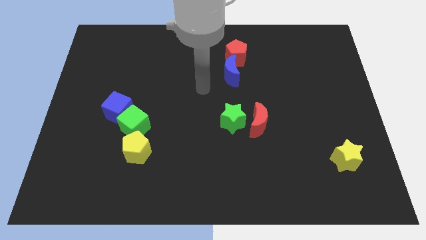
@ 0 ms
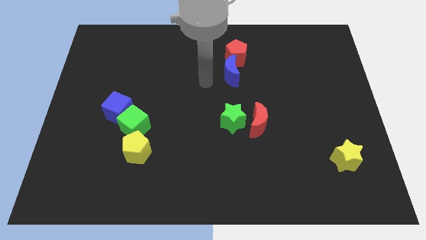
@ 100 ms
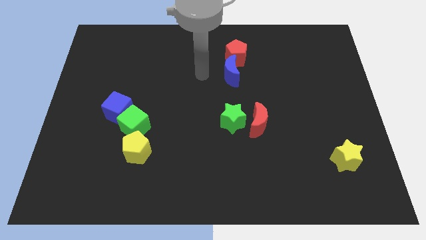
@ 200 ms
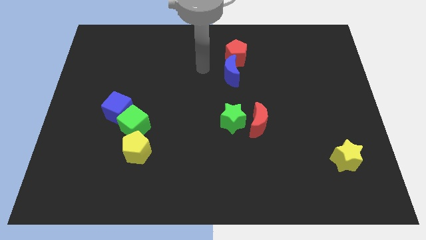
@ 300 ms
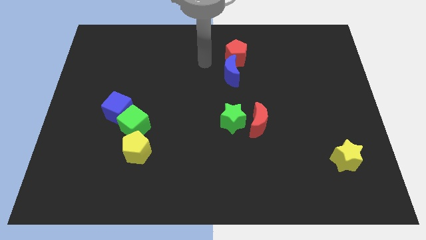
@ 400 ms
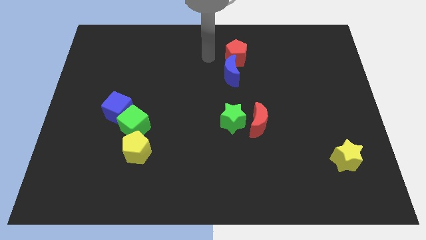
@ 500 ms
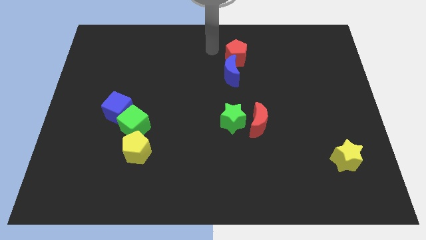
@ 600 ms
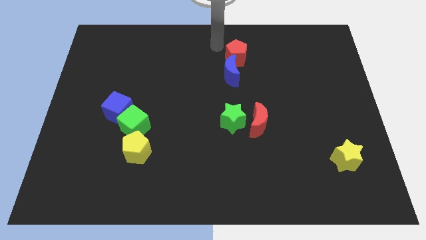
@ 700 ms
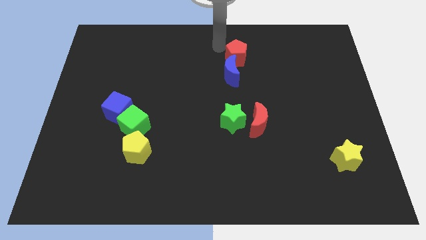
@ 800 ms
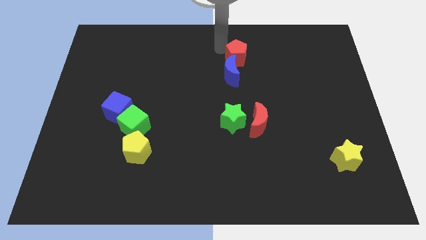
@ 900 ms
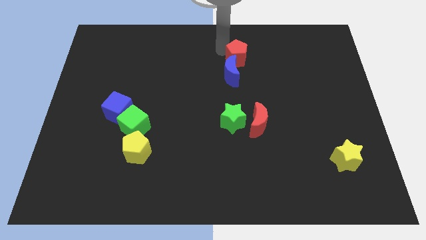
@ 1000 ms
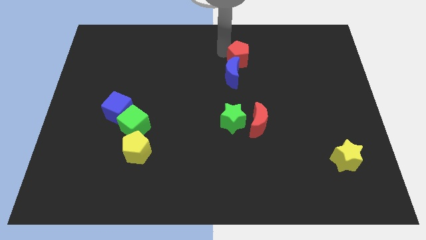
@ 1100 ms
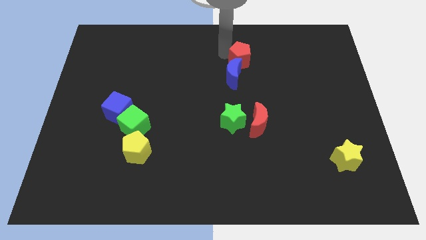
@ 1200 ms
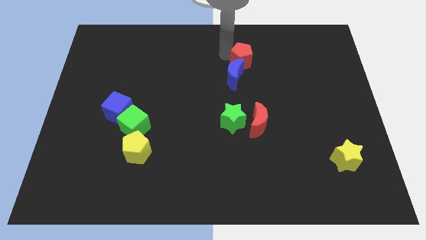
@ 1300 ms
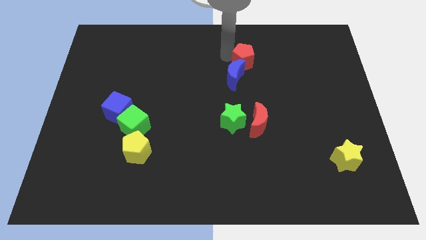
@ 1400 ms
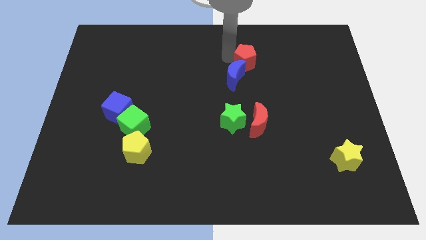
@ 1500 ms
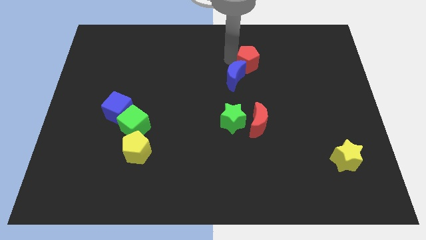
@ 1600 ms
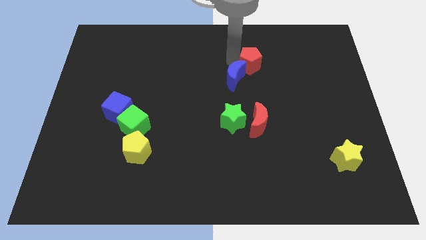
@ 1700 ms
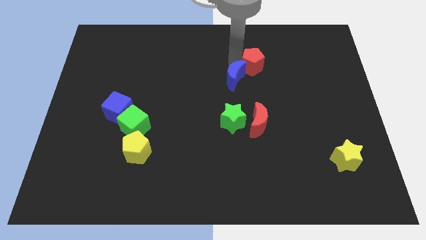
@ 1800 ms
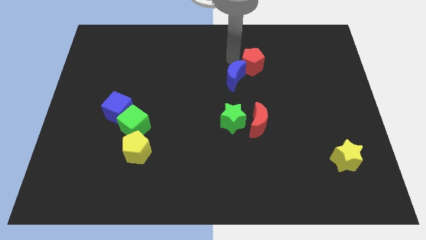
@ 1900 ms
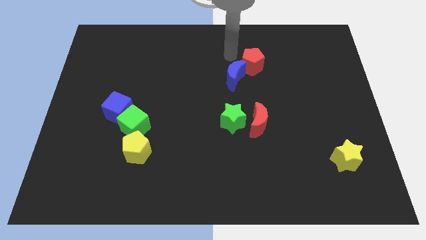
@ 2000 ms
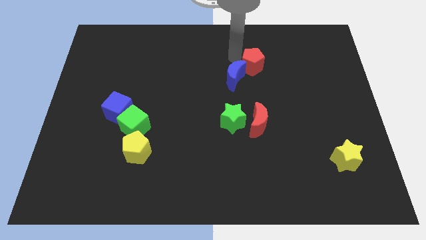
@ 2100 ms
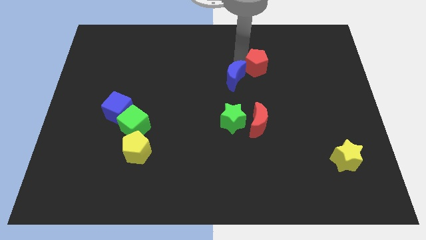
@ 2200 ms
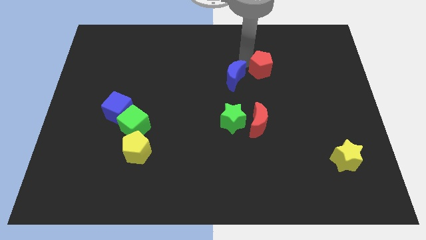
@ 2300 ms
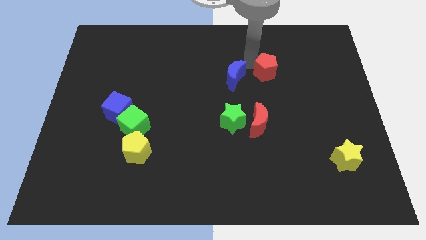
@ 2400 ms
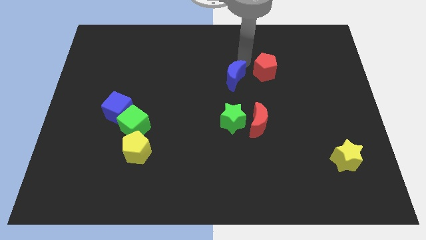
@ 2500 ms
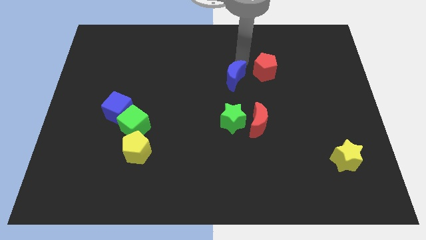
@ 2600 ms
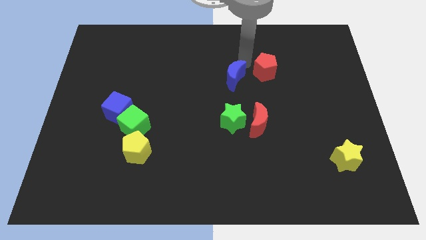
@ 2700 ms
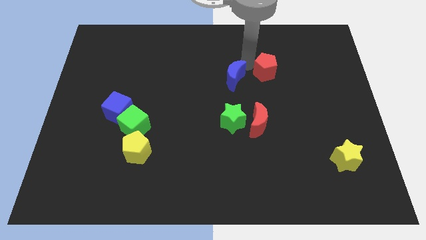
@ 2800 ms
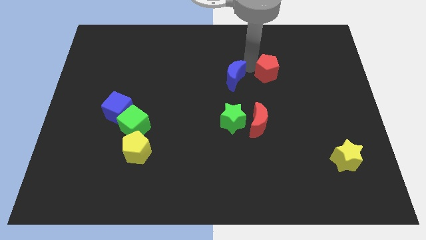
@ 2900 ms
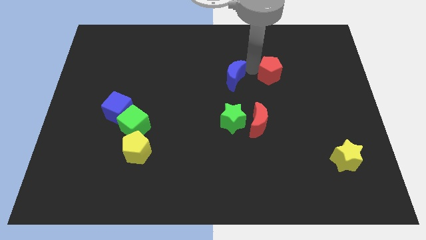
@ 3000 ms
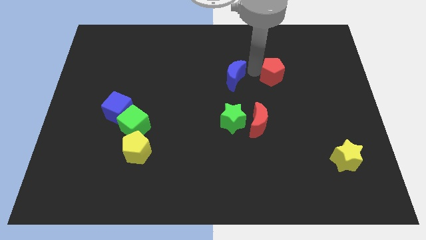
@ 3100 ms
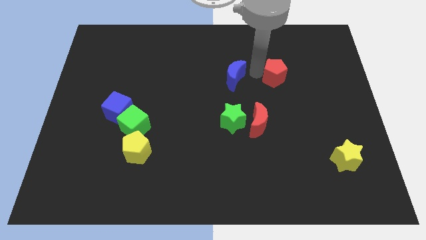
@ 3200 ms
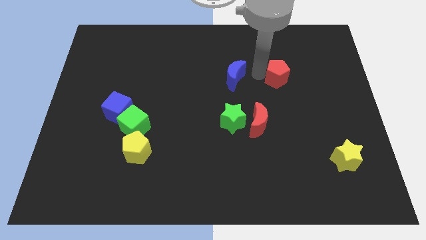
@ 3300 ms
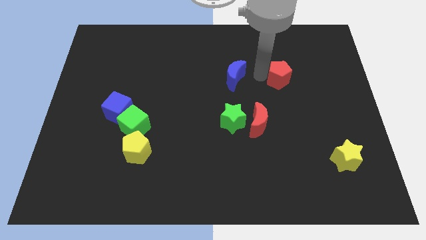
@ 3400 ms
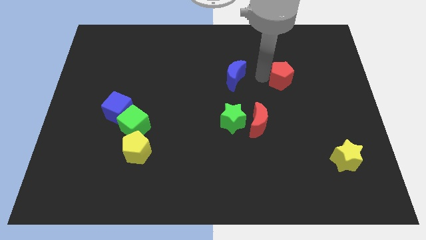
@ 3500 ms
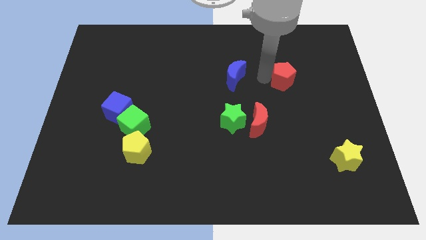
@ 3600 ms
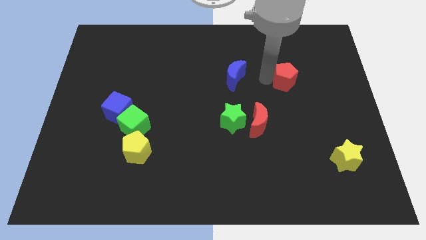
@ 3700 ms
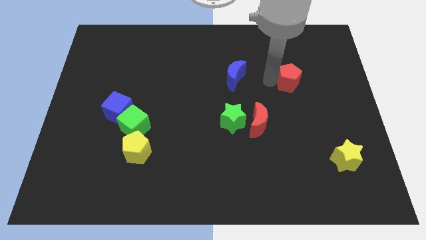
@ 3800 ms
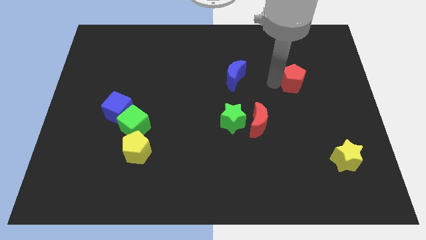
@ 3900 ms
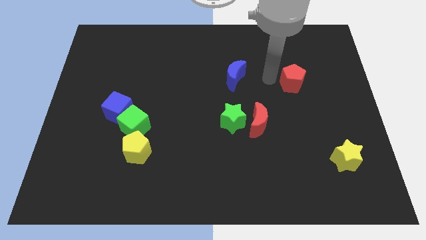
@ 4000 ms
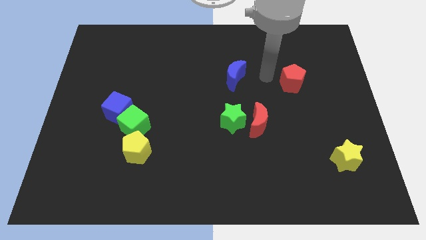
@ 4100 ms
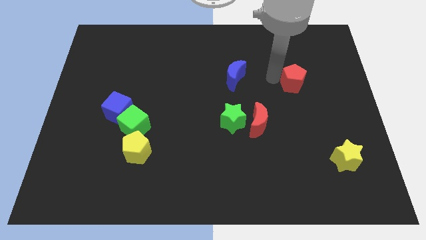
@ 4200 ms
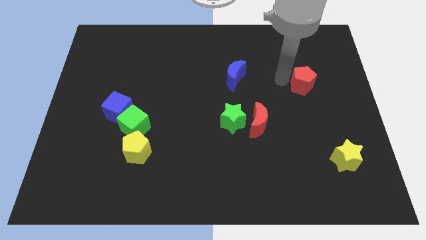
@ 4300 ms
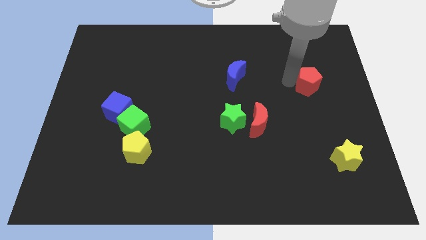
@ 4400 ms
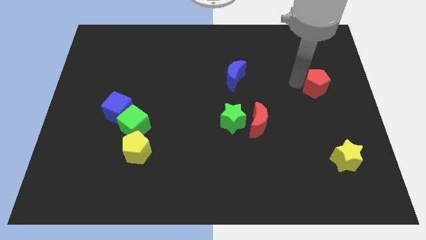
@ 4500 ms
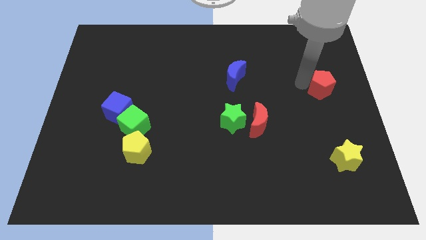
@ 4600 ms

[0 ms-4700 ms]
move the red pentagon to the right side

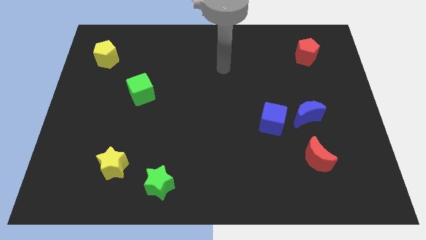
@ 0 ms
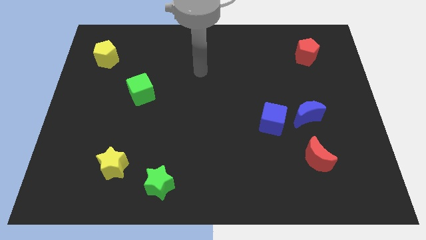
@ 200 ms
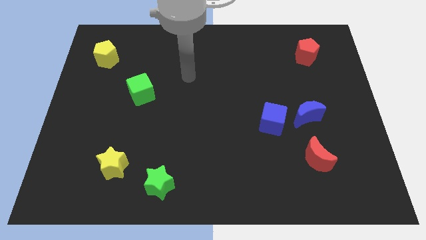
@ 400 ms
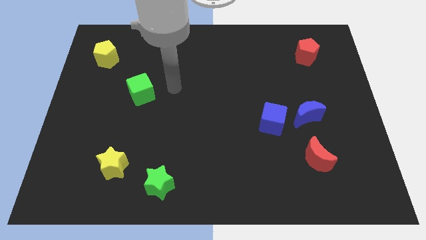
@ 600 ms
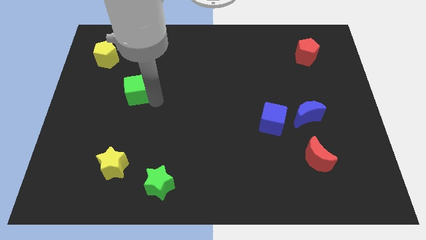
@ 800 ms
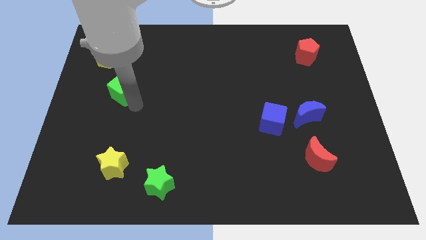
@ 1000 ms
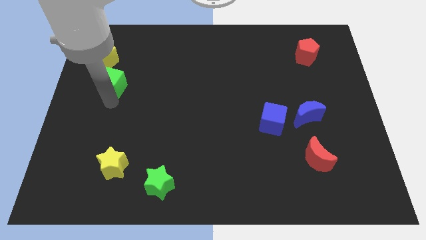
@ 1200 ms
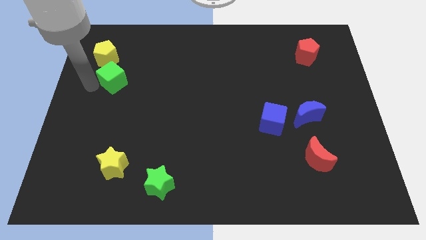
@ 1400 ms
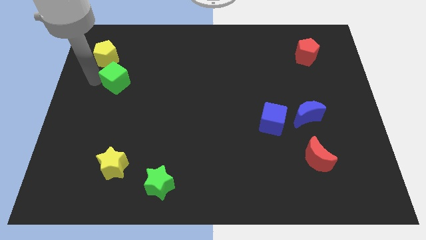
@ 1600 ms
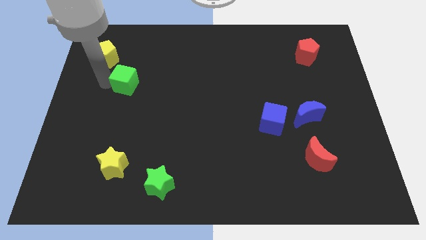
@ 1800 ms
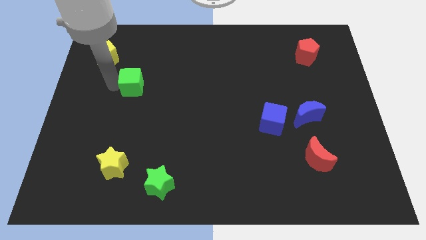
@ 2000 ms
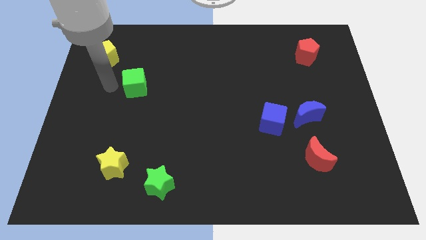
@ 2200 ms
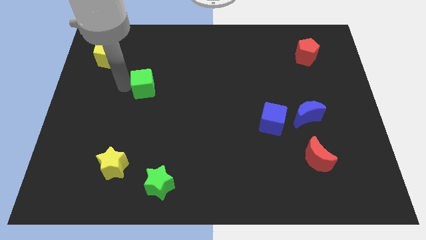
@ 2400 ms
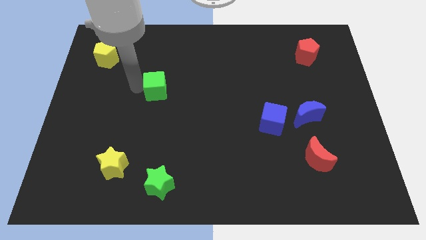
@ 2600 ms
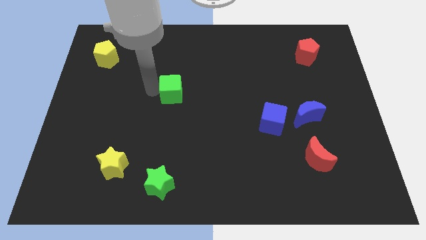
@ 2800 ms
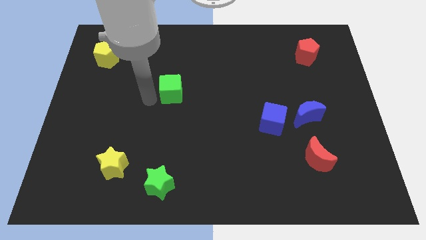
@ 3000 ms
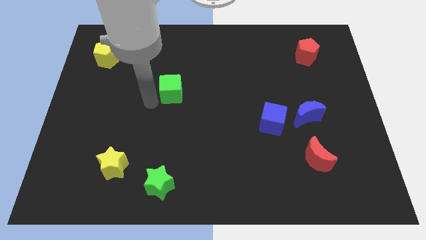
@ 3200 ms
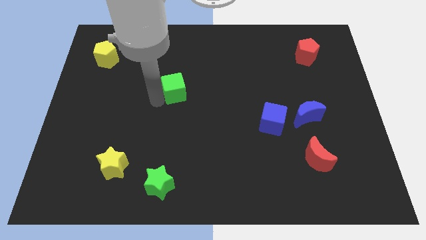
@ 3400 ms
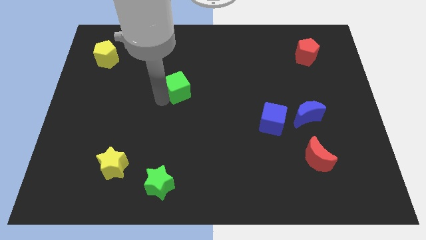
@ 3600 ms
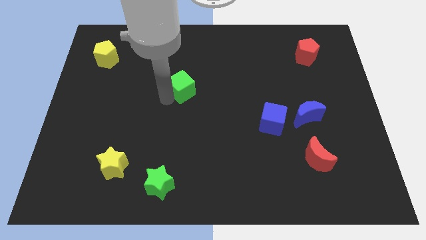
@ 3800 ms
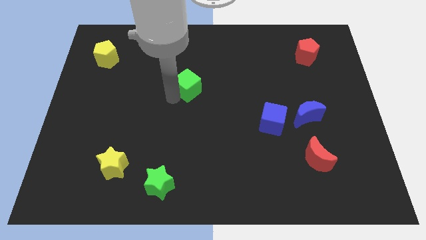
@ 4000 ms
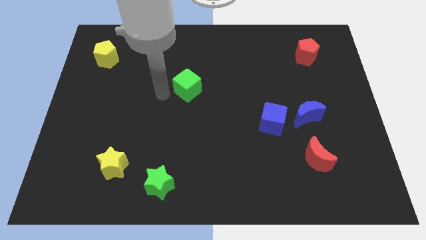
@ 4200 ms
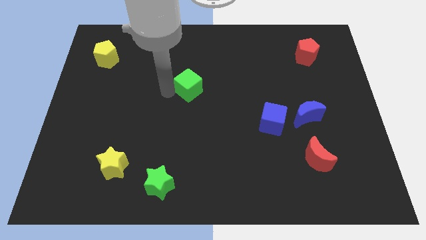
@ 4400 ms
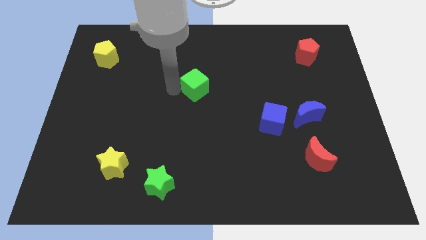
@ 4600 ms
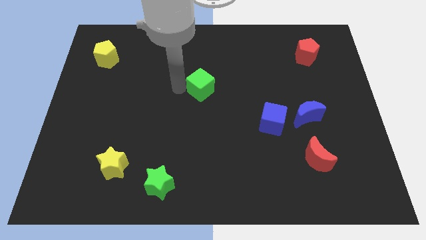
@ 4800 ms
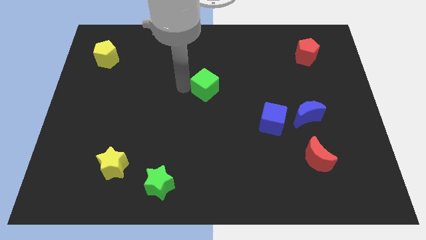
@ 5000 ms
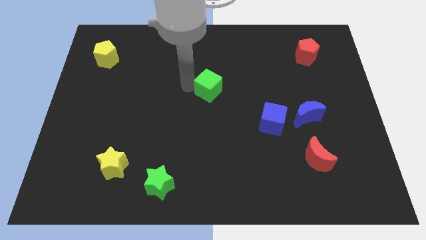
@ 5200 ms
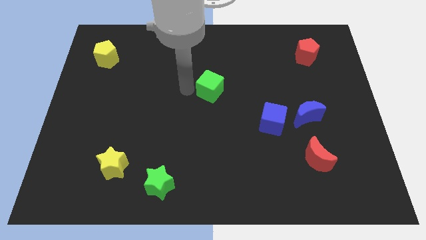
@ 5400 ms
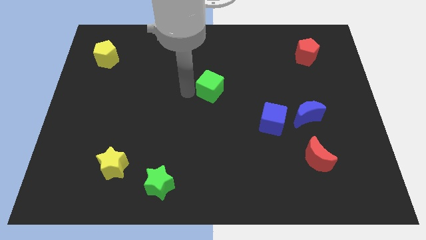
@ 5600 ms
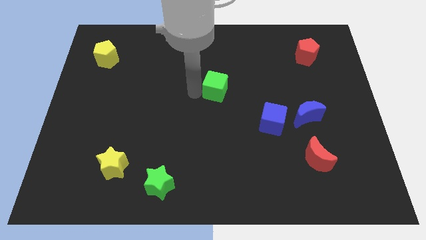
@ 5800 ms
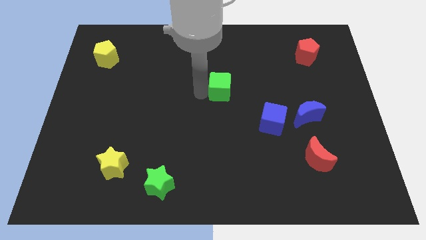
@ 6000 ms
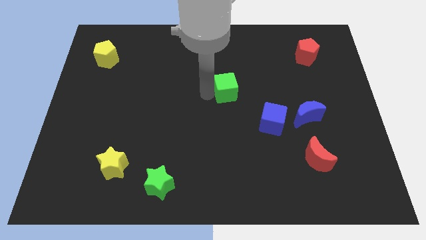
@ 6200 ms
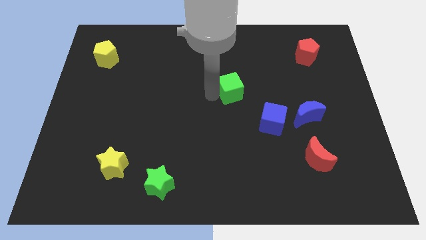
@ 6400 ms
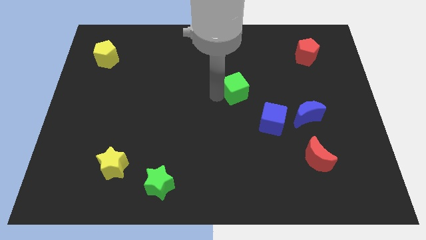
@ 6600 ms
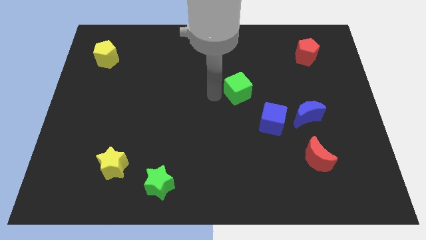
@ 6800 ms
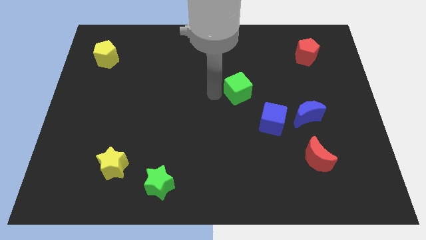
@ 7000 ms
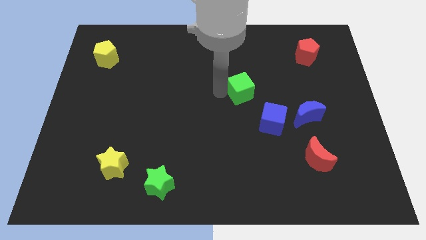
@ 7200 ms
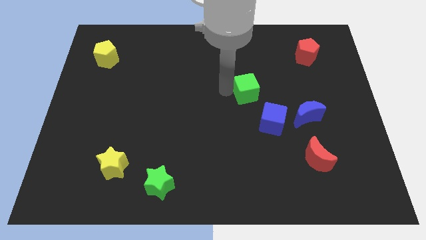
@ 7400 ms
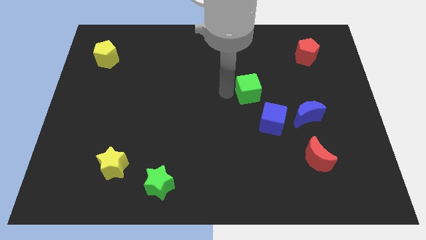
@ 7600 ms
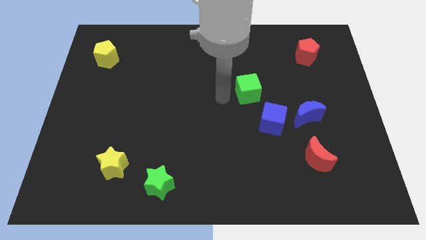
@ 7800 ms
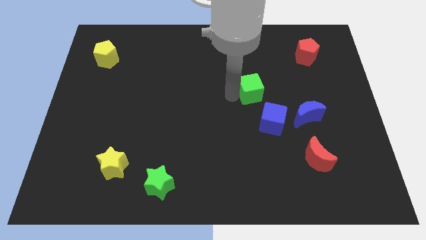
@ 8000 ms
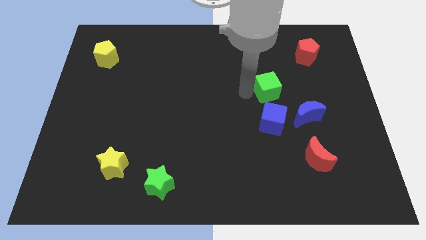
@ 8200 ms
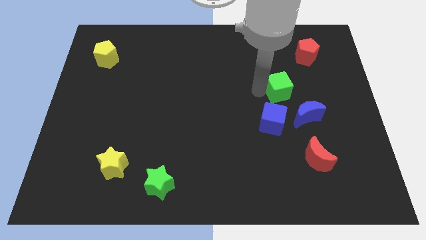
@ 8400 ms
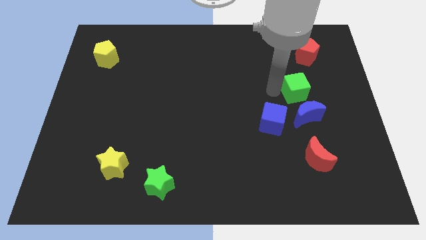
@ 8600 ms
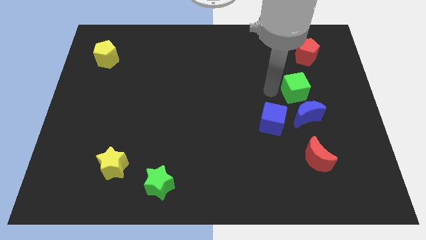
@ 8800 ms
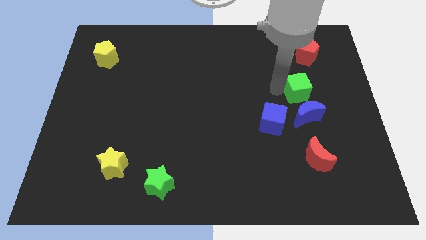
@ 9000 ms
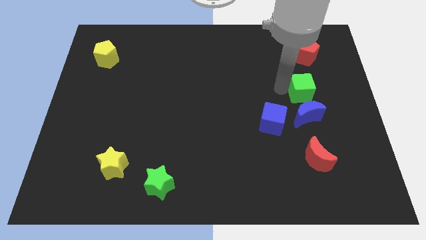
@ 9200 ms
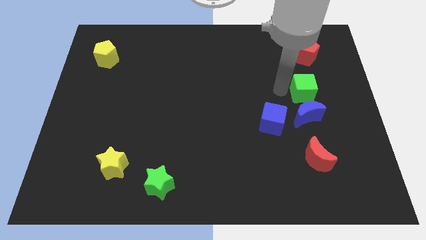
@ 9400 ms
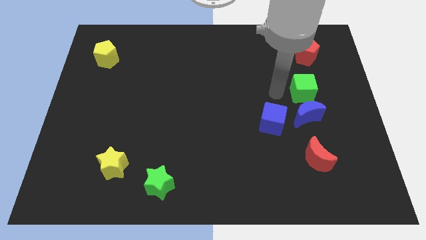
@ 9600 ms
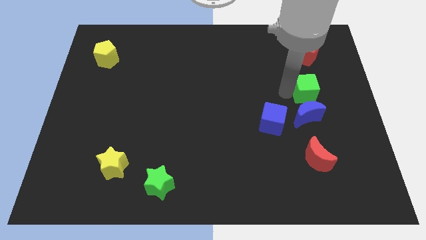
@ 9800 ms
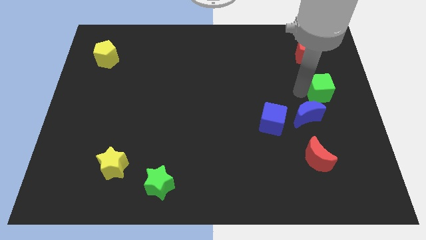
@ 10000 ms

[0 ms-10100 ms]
move the green cube to the center right
